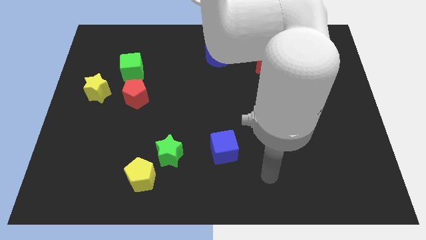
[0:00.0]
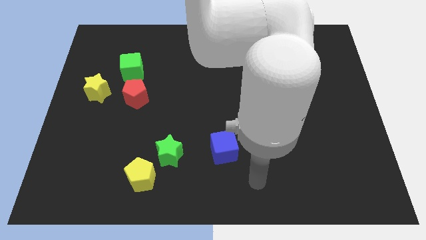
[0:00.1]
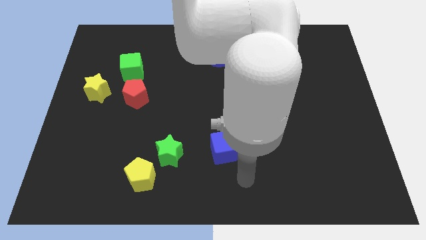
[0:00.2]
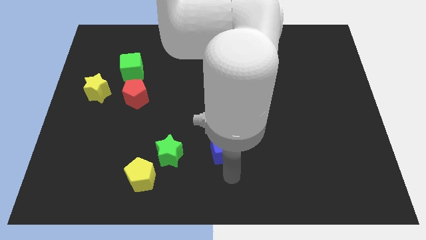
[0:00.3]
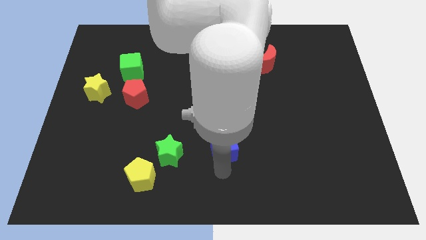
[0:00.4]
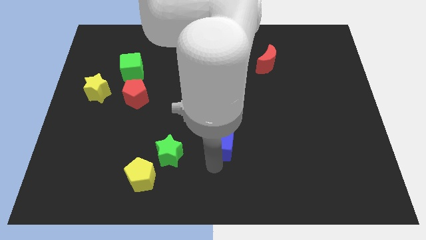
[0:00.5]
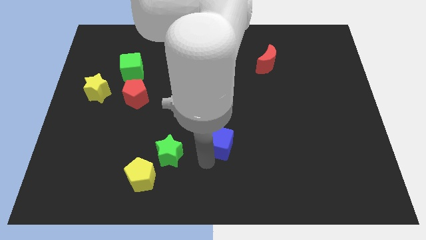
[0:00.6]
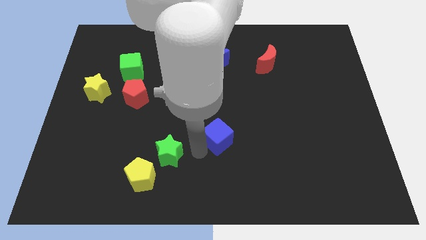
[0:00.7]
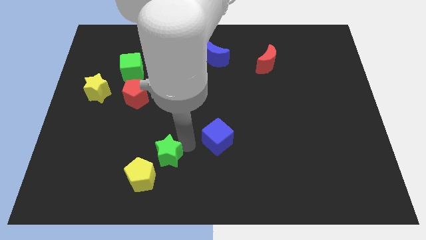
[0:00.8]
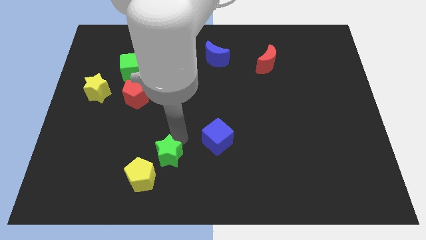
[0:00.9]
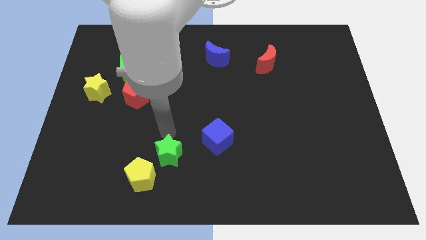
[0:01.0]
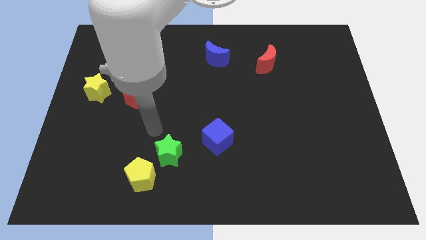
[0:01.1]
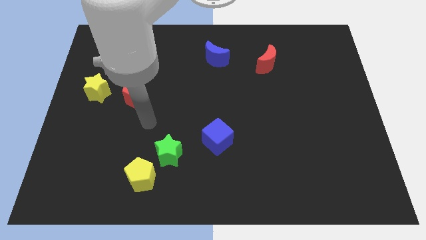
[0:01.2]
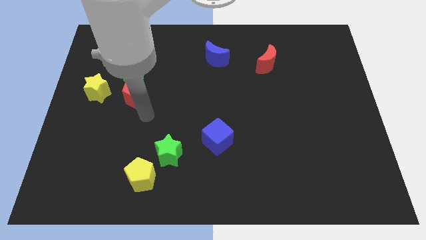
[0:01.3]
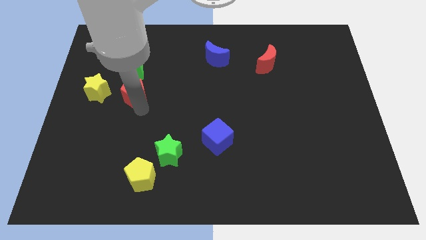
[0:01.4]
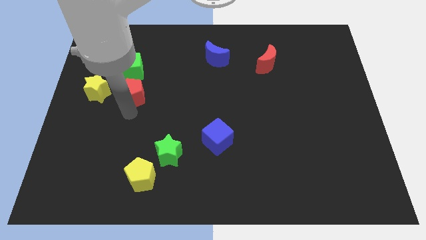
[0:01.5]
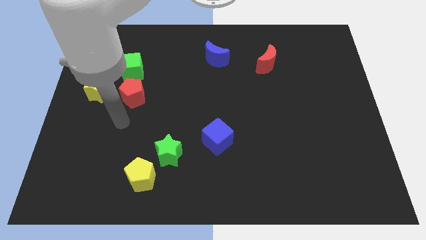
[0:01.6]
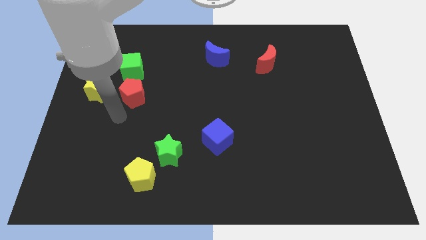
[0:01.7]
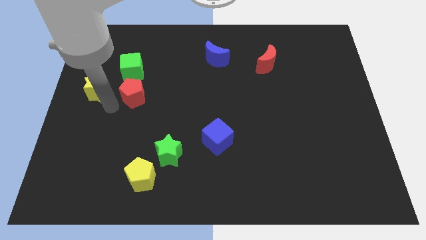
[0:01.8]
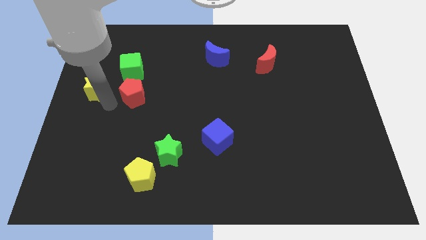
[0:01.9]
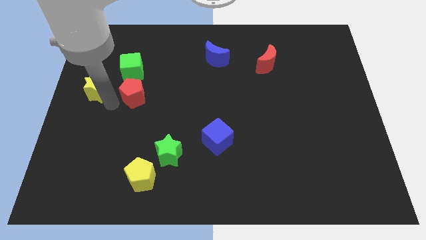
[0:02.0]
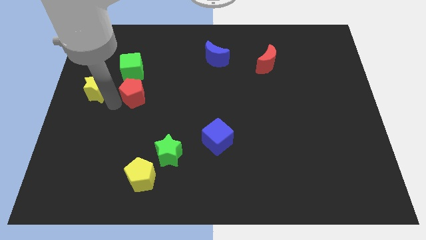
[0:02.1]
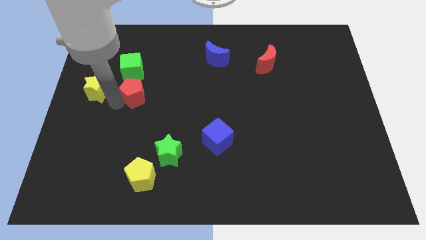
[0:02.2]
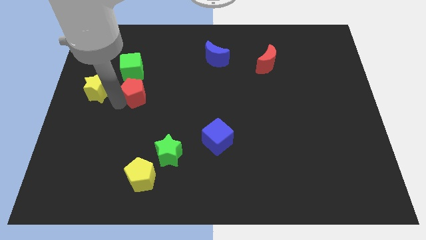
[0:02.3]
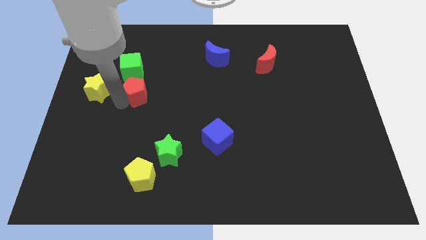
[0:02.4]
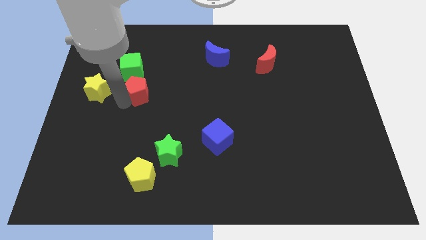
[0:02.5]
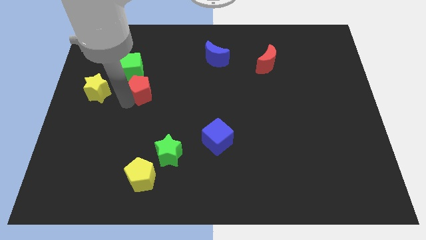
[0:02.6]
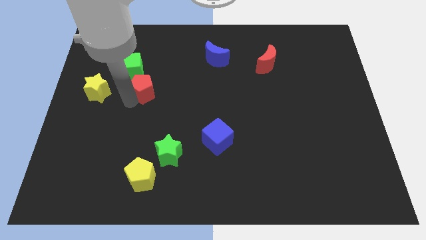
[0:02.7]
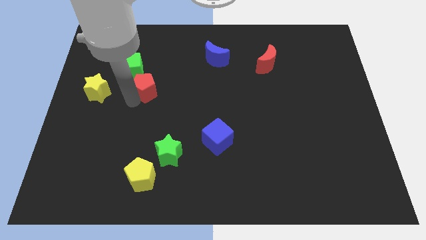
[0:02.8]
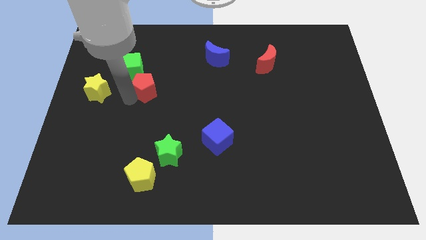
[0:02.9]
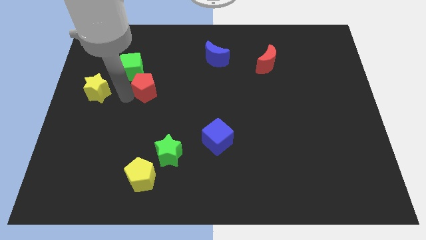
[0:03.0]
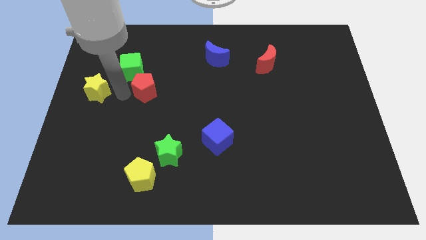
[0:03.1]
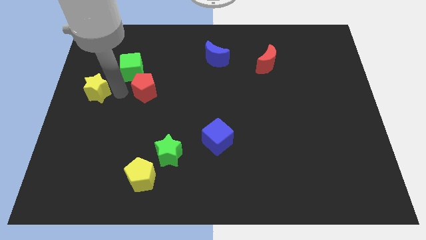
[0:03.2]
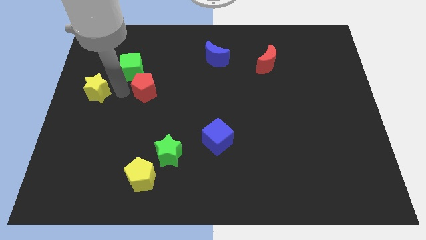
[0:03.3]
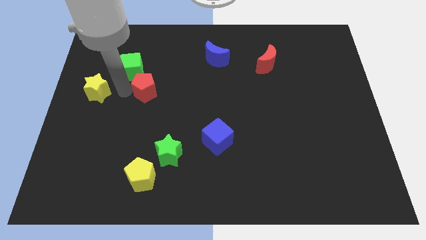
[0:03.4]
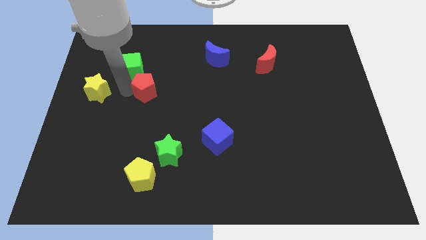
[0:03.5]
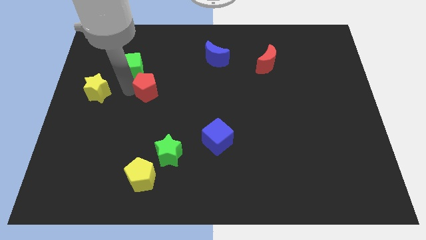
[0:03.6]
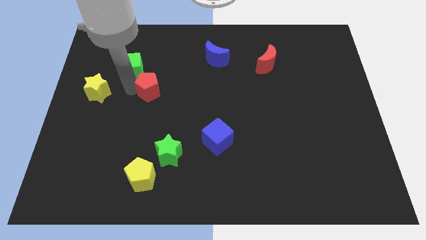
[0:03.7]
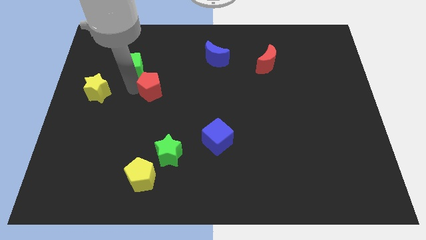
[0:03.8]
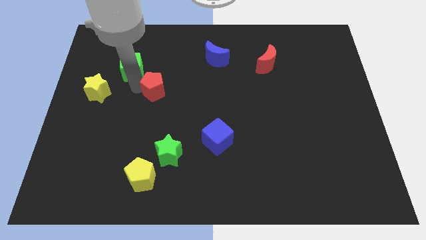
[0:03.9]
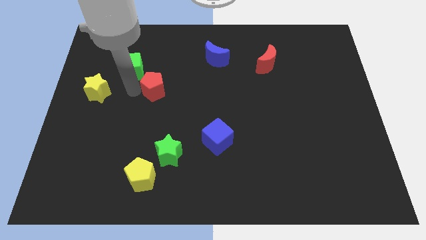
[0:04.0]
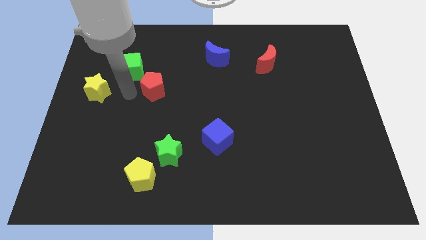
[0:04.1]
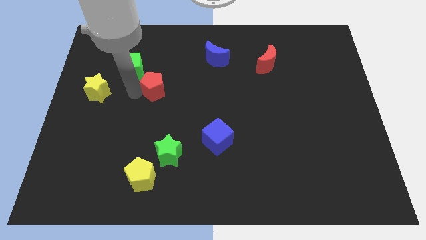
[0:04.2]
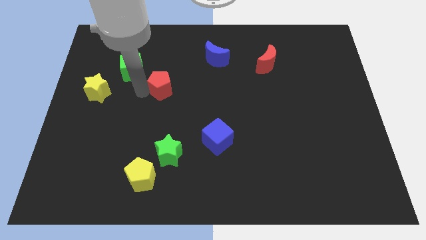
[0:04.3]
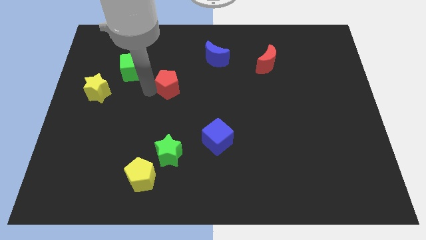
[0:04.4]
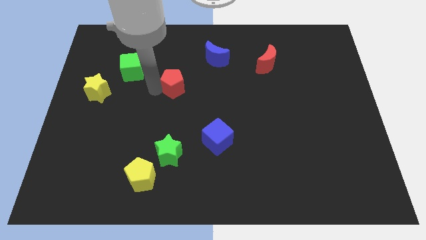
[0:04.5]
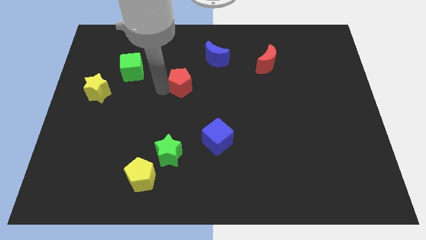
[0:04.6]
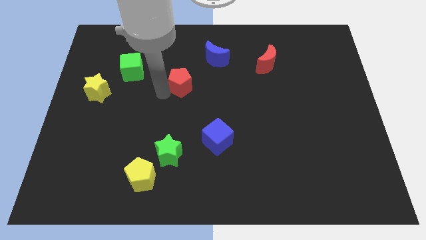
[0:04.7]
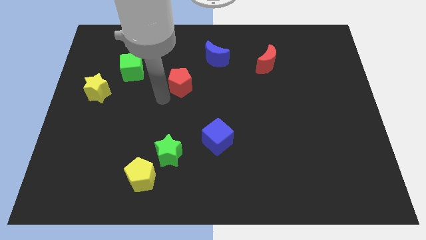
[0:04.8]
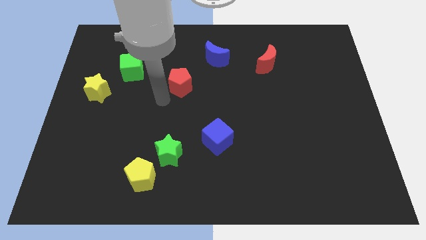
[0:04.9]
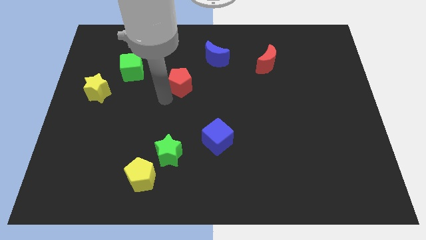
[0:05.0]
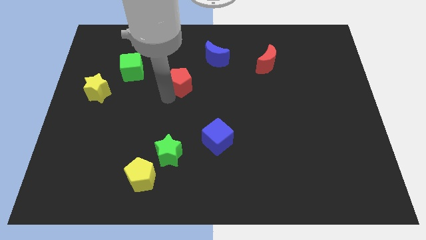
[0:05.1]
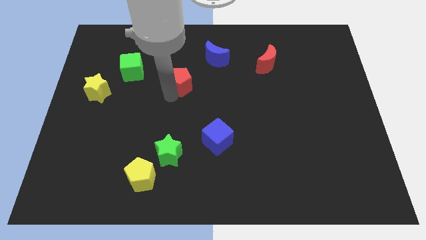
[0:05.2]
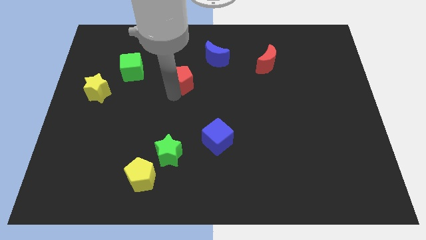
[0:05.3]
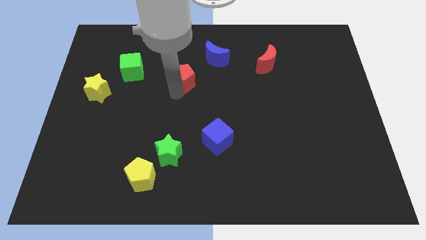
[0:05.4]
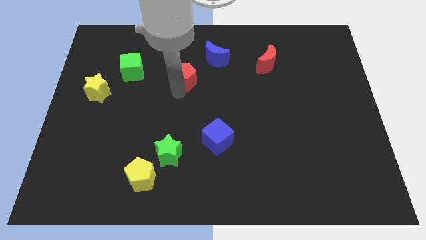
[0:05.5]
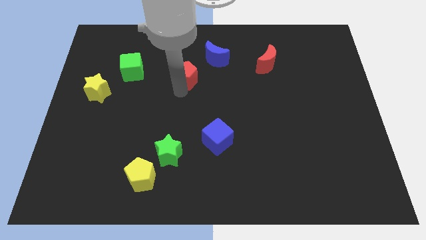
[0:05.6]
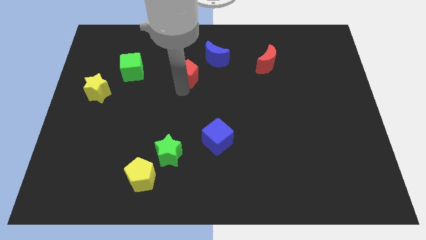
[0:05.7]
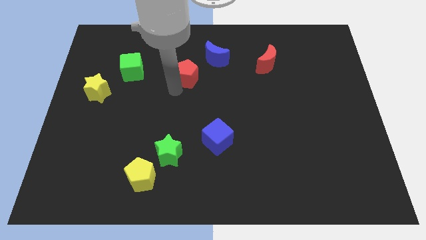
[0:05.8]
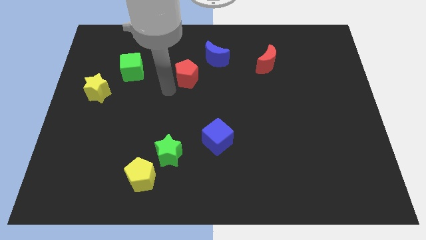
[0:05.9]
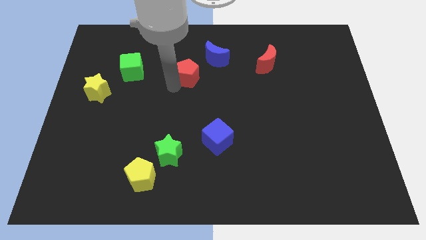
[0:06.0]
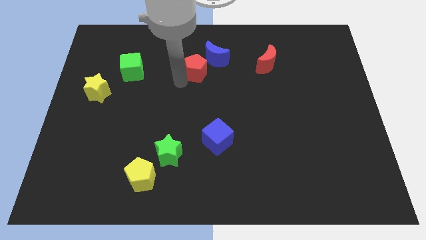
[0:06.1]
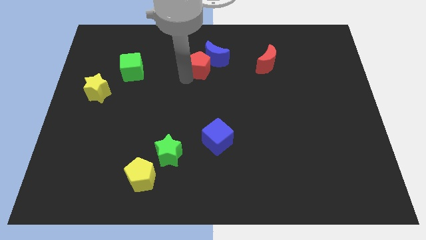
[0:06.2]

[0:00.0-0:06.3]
push the red pentagon next to the blue moon

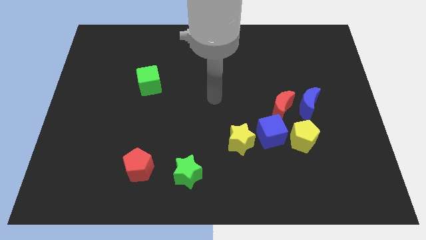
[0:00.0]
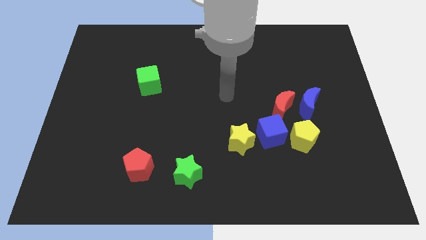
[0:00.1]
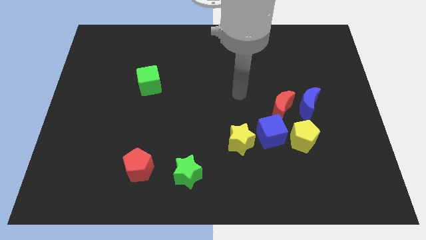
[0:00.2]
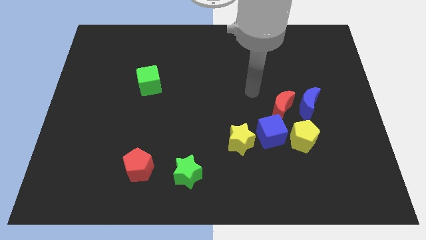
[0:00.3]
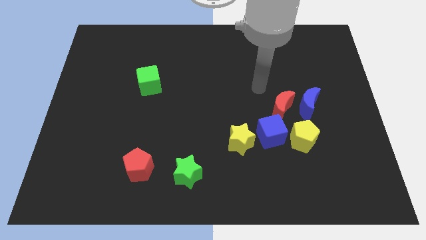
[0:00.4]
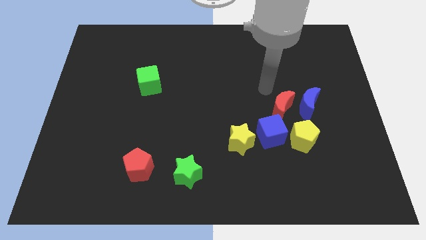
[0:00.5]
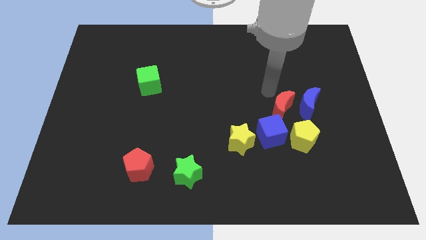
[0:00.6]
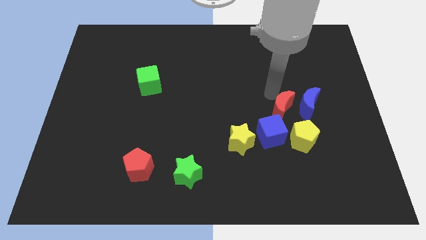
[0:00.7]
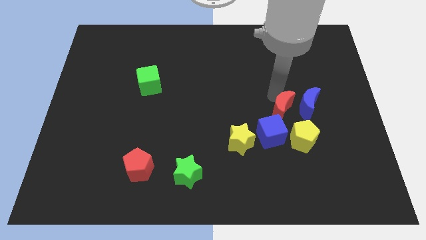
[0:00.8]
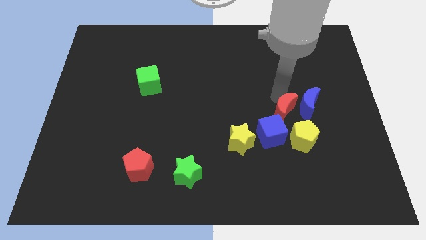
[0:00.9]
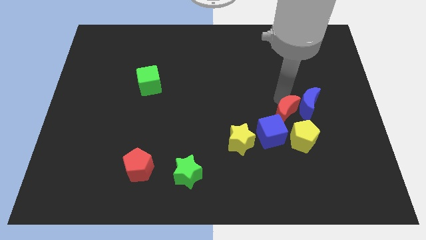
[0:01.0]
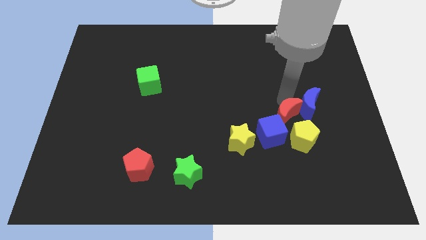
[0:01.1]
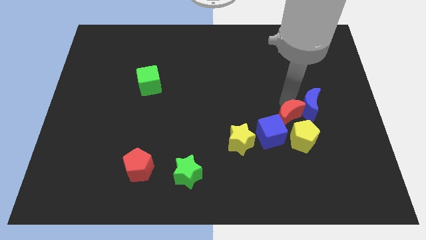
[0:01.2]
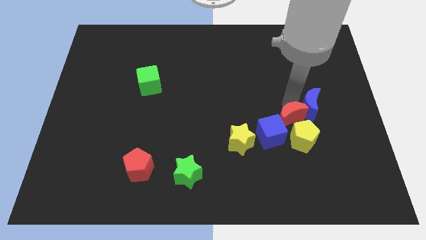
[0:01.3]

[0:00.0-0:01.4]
push the red moon to the yellow pentagon
